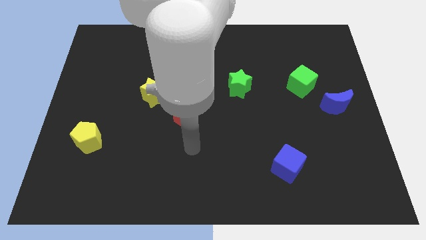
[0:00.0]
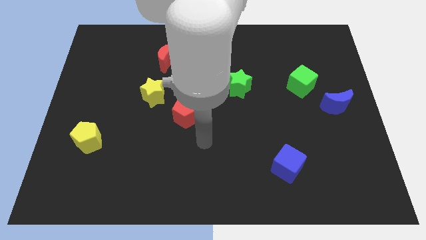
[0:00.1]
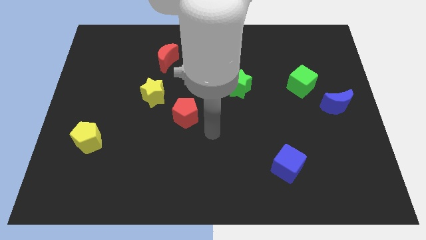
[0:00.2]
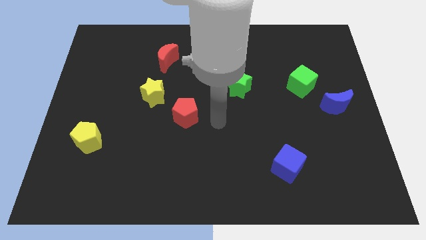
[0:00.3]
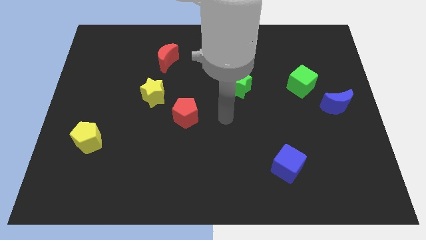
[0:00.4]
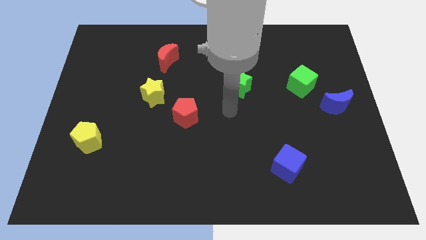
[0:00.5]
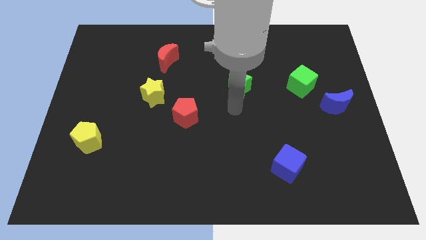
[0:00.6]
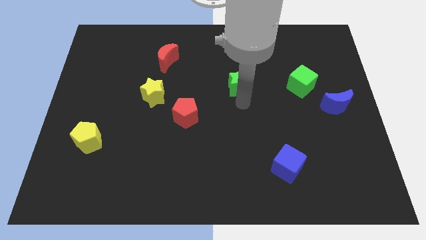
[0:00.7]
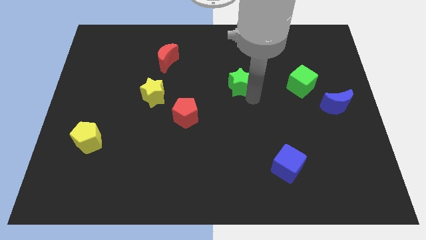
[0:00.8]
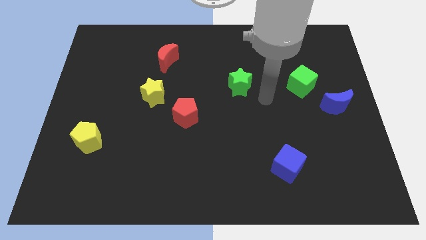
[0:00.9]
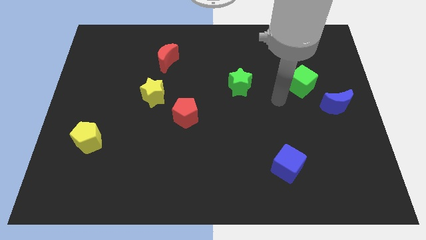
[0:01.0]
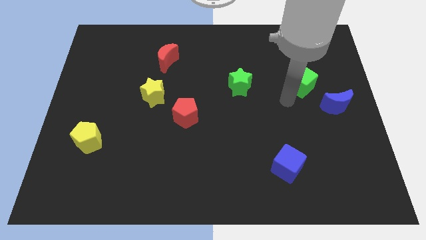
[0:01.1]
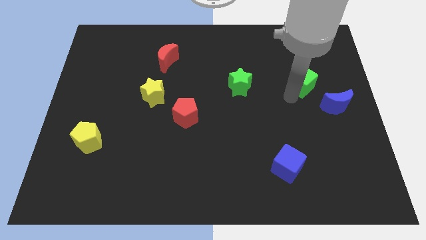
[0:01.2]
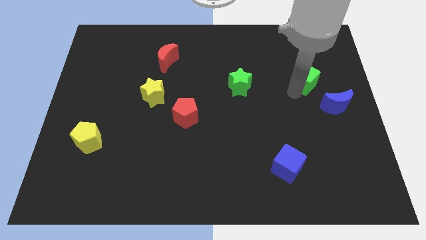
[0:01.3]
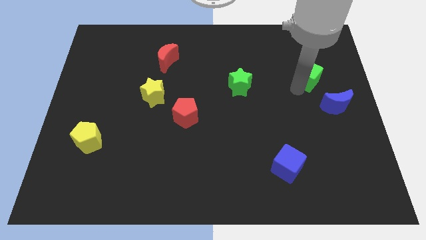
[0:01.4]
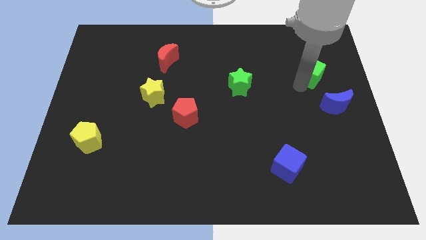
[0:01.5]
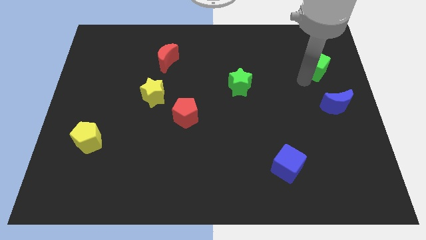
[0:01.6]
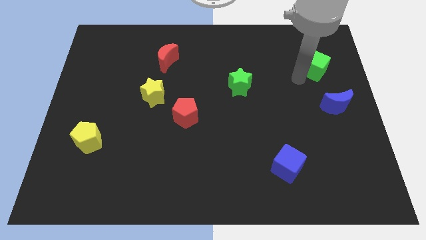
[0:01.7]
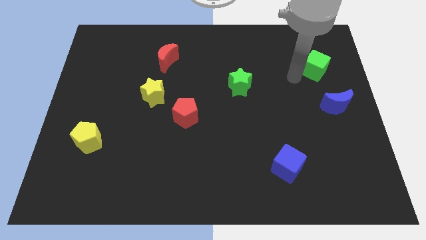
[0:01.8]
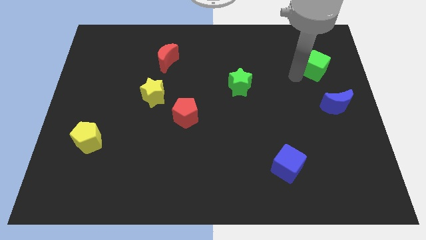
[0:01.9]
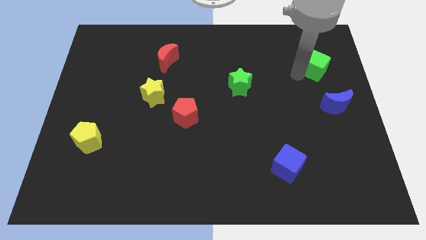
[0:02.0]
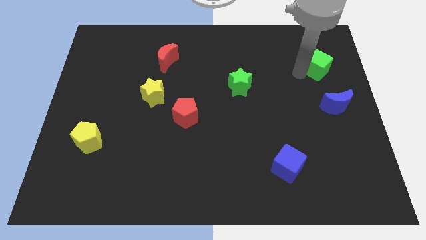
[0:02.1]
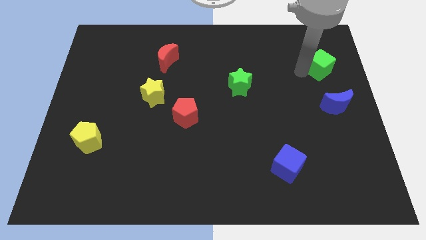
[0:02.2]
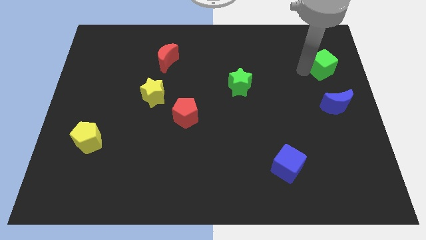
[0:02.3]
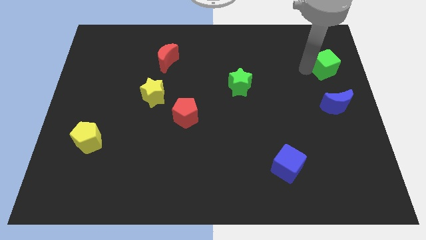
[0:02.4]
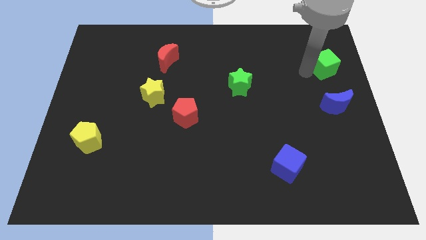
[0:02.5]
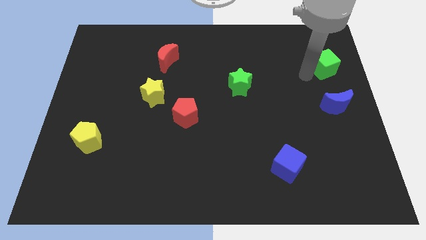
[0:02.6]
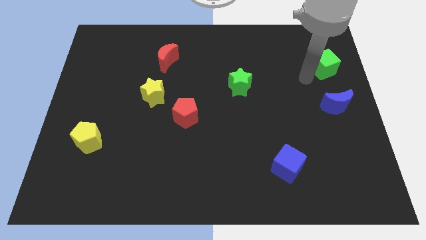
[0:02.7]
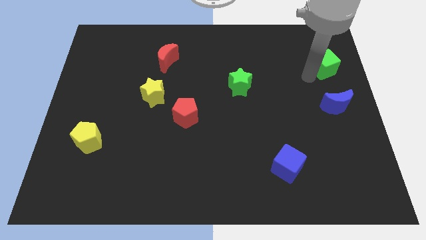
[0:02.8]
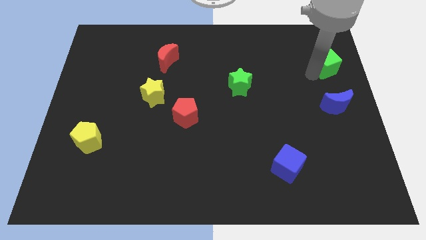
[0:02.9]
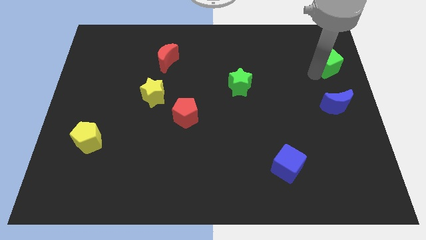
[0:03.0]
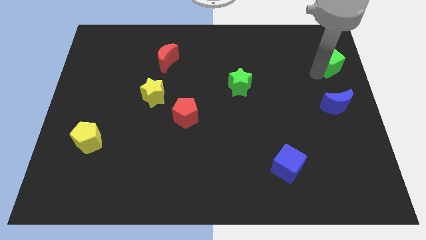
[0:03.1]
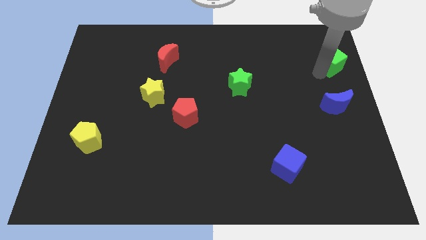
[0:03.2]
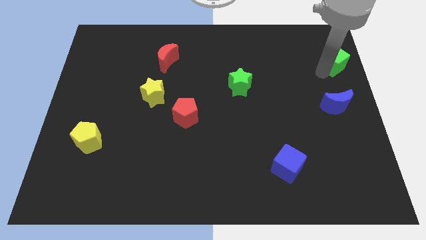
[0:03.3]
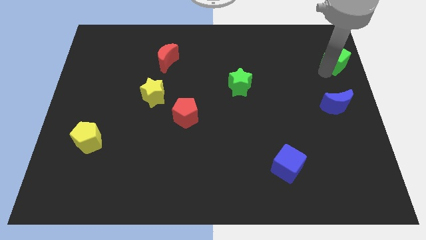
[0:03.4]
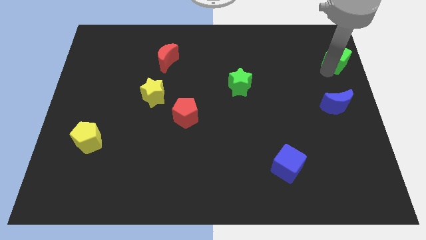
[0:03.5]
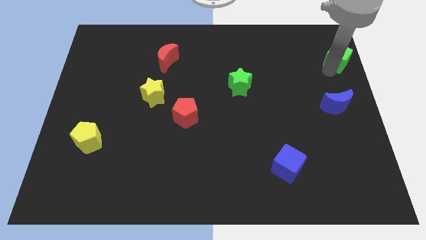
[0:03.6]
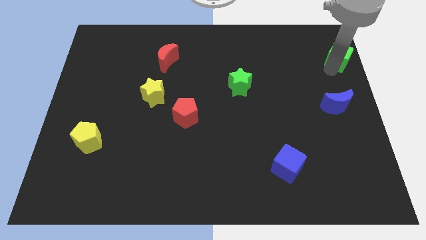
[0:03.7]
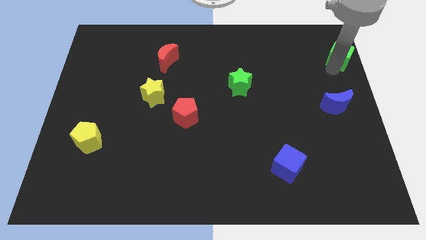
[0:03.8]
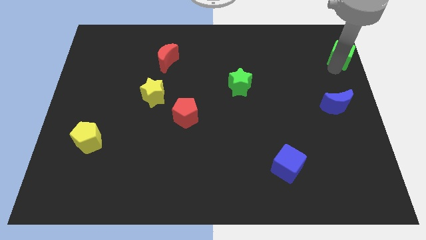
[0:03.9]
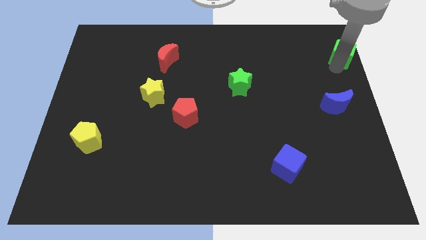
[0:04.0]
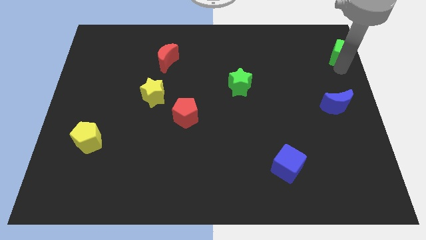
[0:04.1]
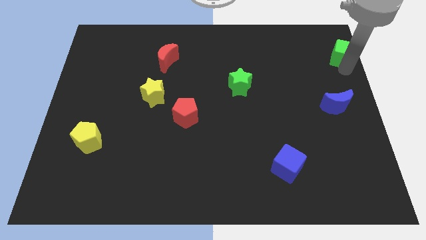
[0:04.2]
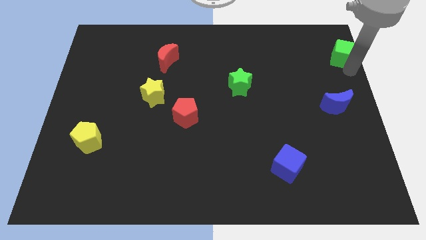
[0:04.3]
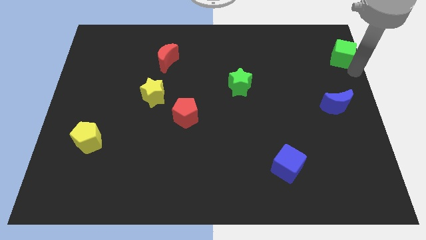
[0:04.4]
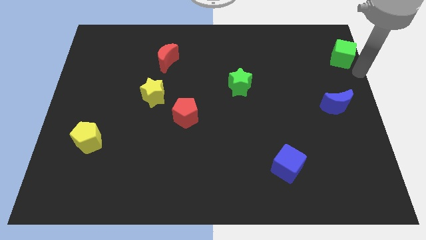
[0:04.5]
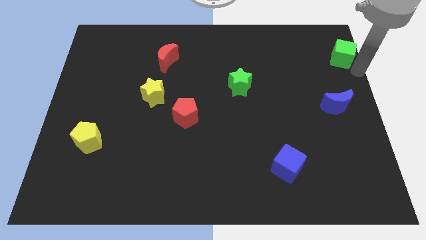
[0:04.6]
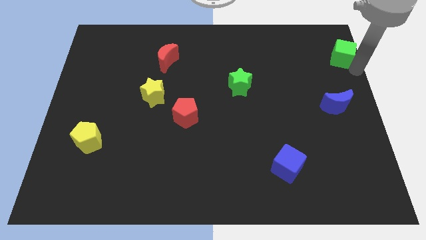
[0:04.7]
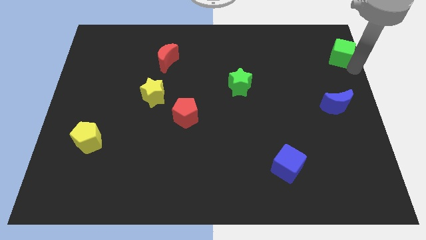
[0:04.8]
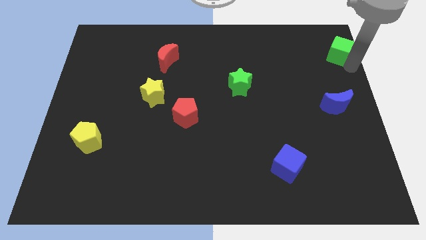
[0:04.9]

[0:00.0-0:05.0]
slide the green cube to the top right

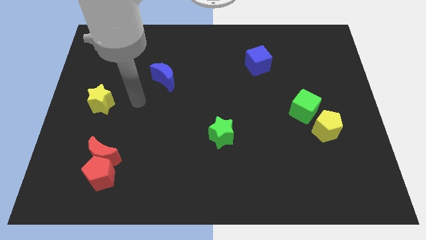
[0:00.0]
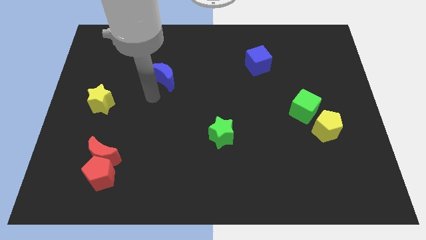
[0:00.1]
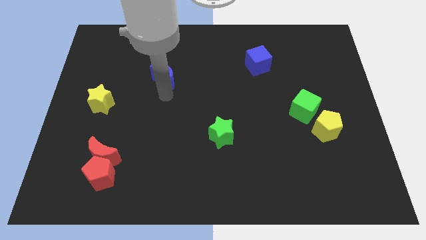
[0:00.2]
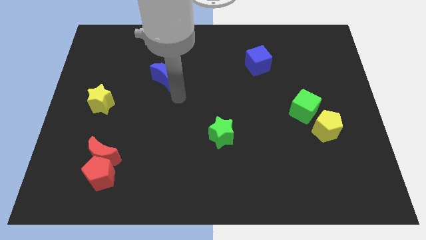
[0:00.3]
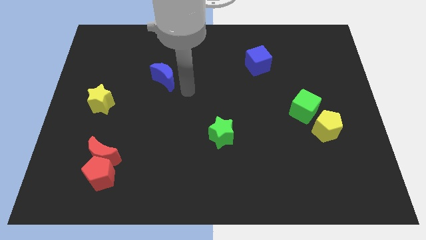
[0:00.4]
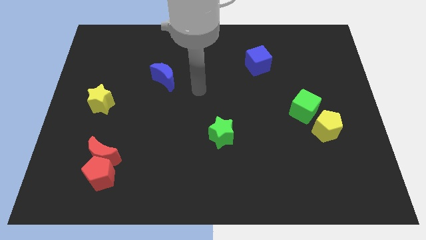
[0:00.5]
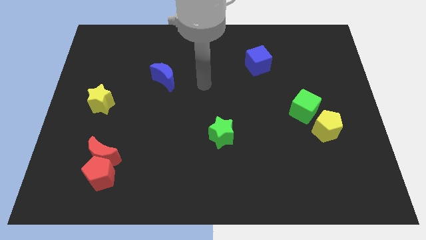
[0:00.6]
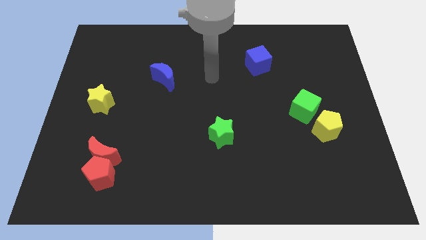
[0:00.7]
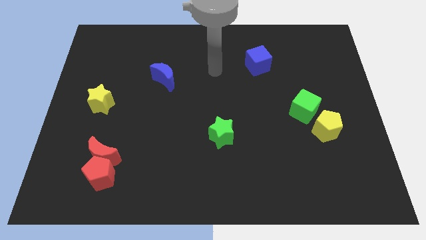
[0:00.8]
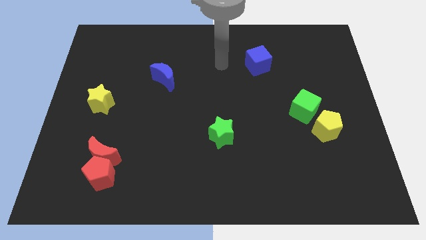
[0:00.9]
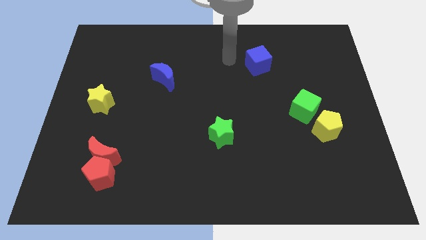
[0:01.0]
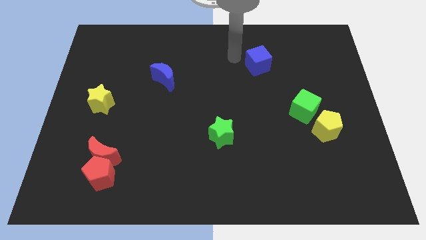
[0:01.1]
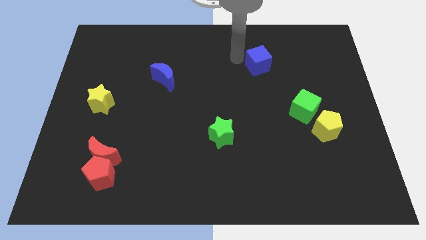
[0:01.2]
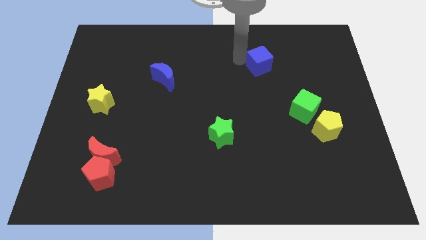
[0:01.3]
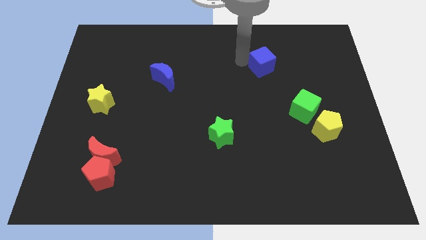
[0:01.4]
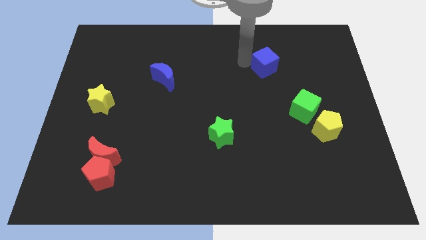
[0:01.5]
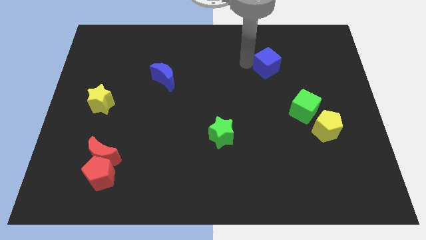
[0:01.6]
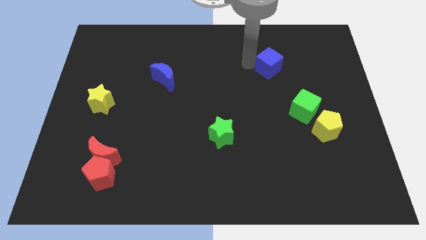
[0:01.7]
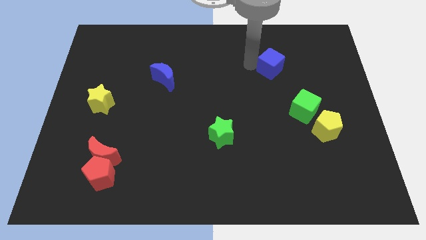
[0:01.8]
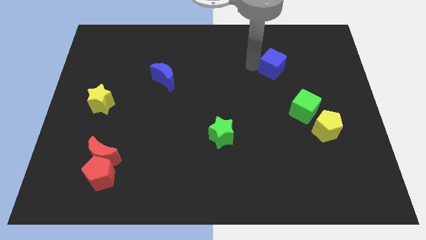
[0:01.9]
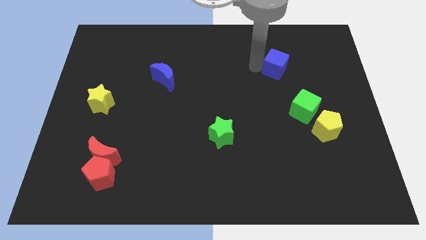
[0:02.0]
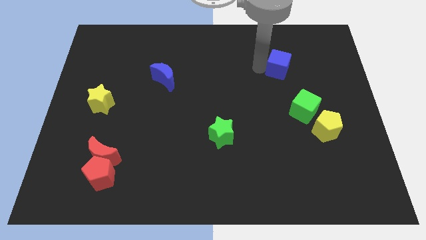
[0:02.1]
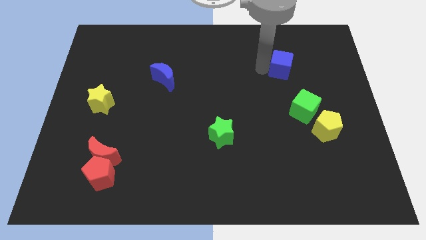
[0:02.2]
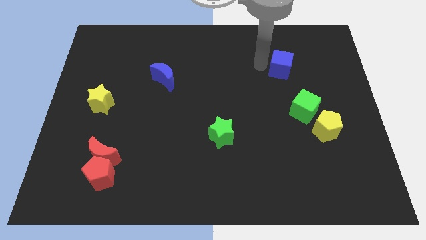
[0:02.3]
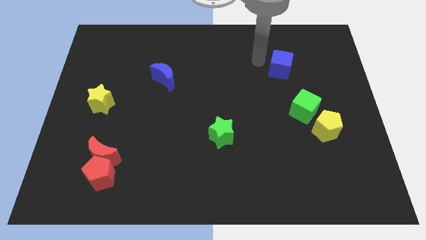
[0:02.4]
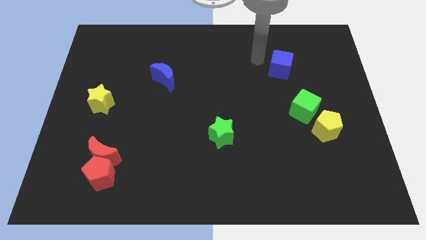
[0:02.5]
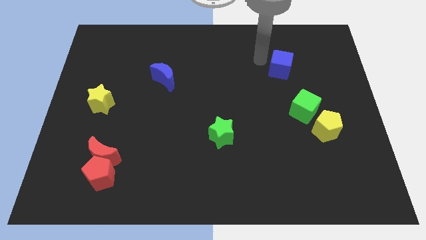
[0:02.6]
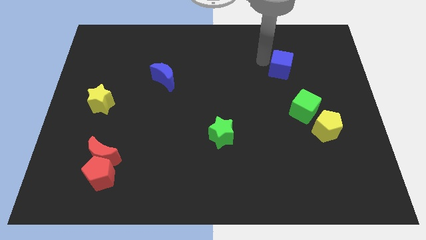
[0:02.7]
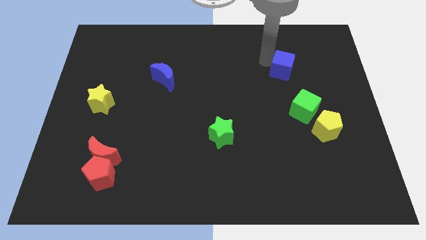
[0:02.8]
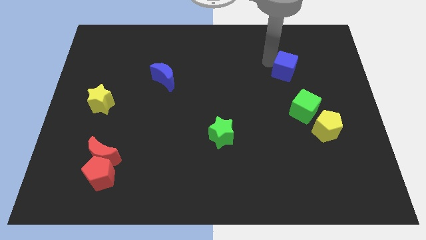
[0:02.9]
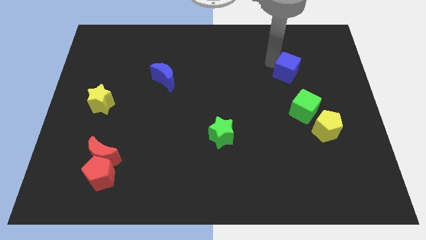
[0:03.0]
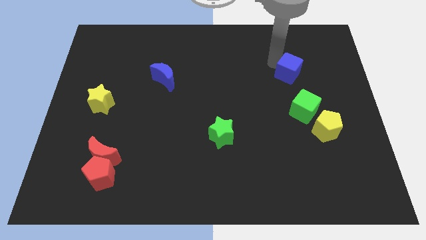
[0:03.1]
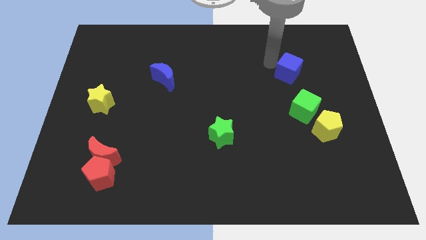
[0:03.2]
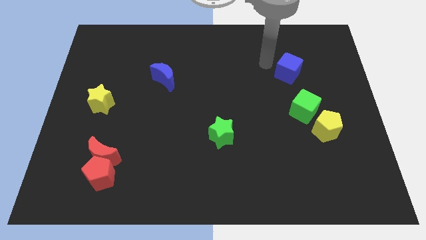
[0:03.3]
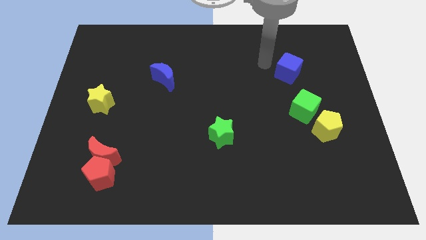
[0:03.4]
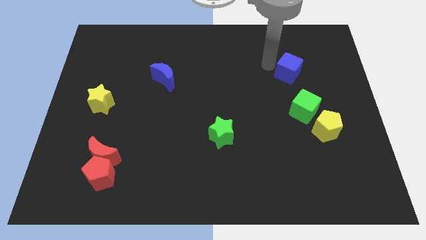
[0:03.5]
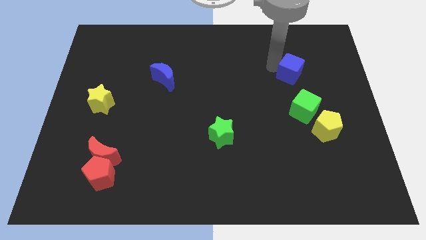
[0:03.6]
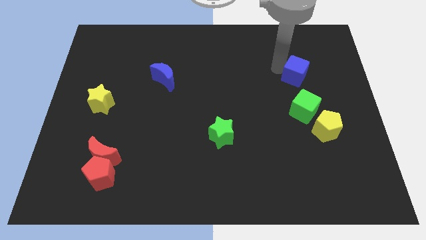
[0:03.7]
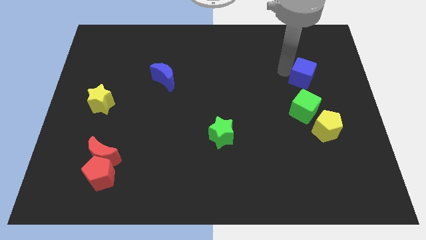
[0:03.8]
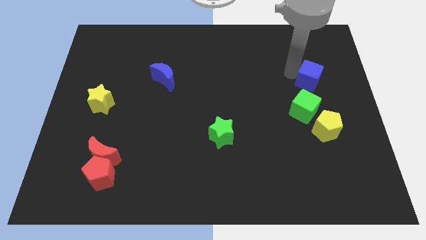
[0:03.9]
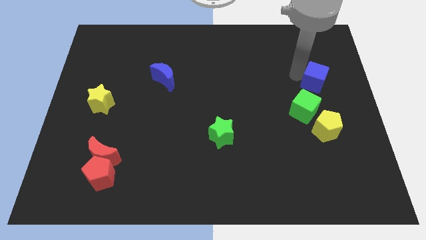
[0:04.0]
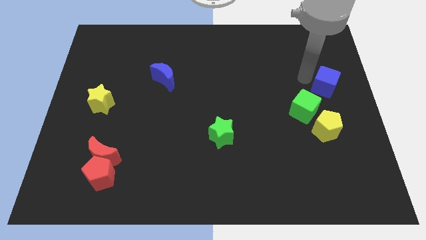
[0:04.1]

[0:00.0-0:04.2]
slide the blue cube to the right side
